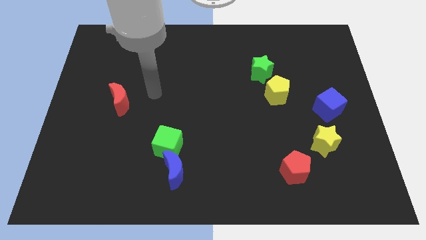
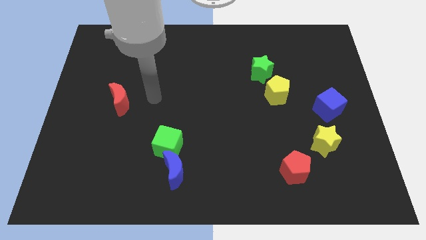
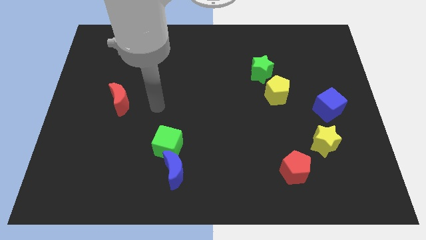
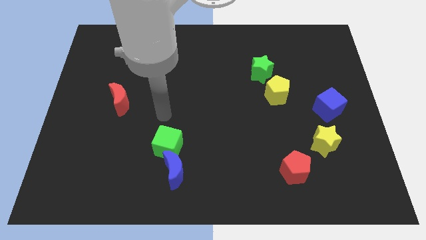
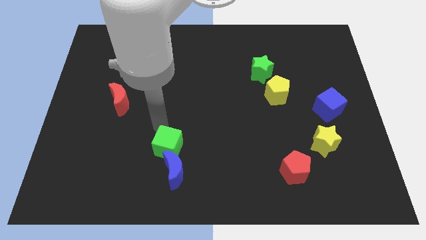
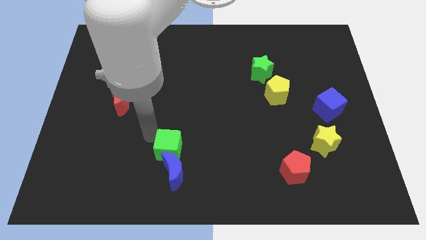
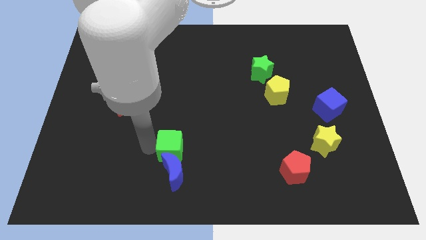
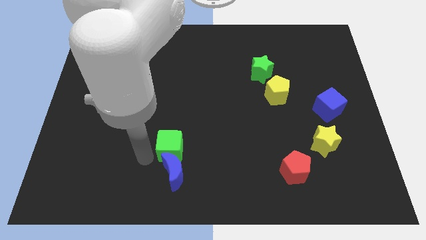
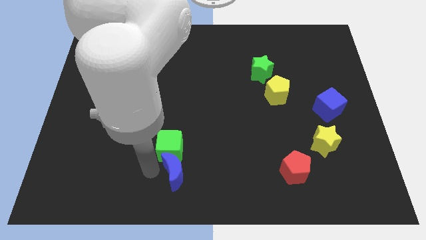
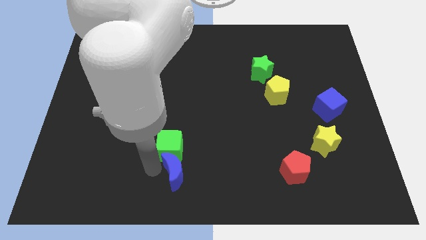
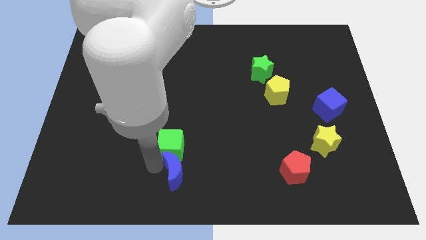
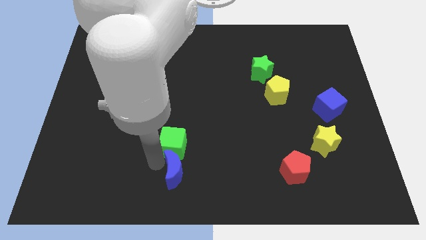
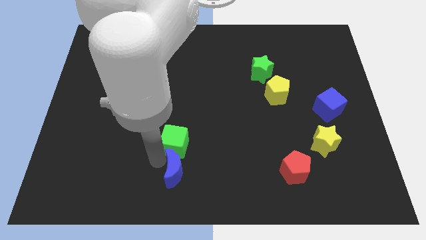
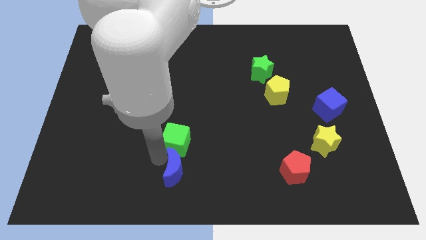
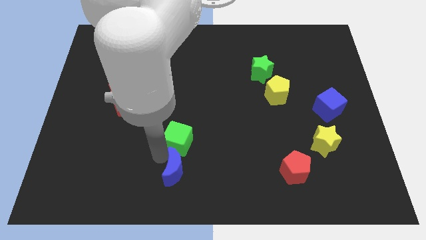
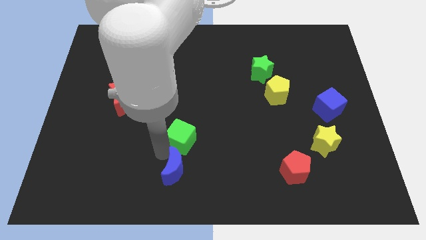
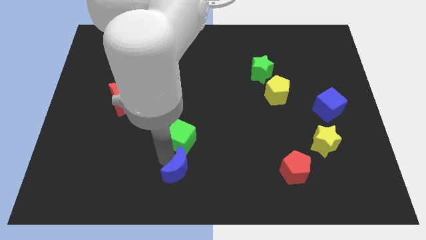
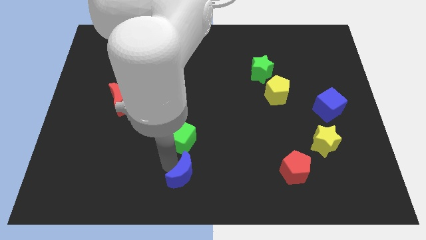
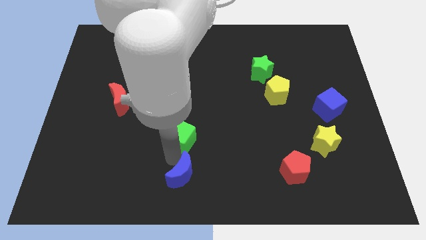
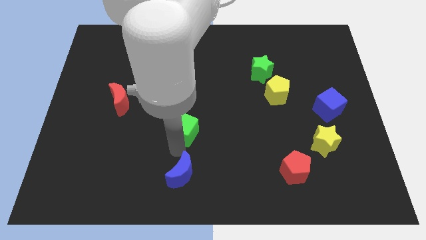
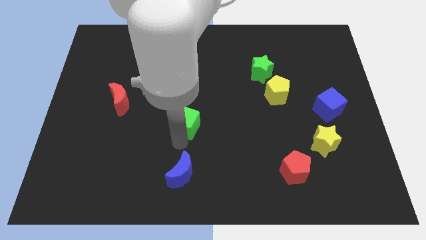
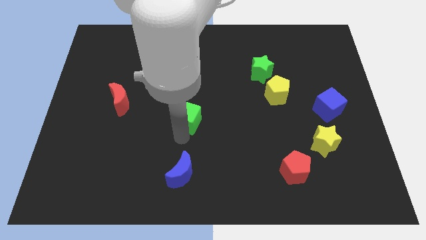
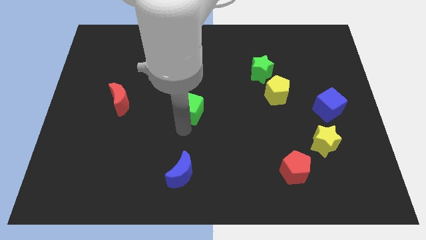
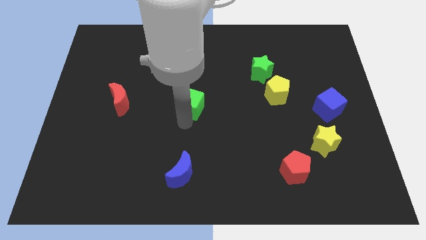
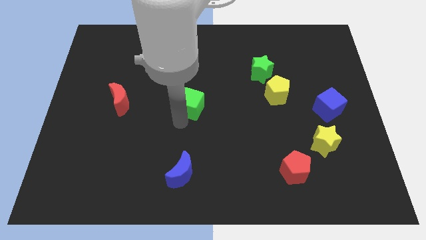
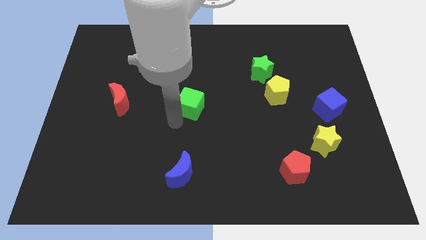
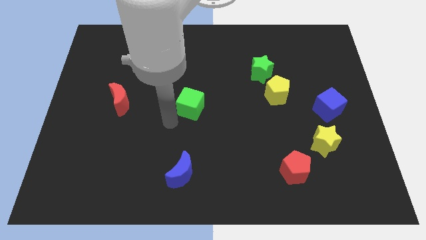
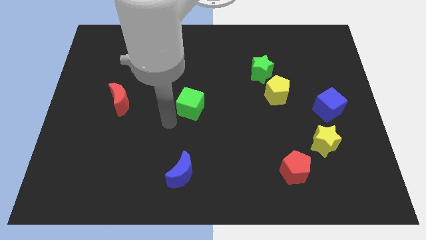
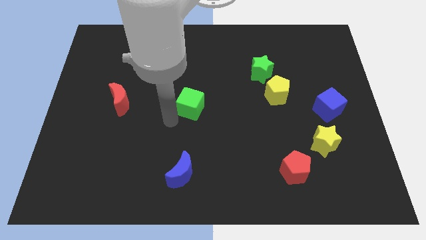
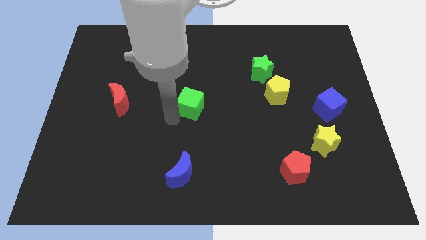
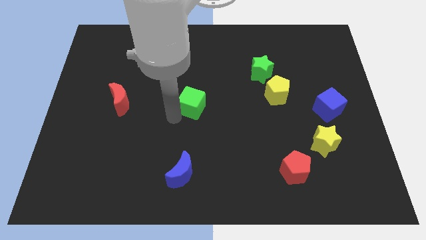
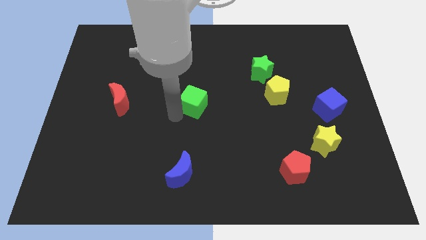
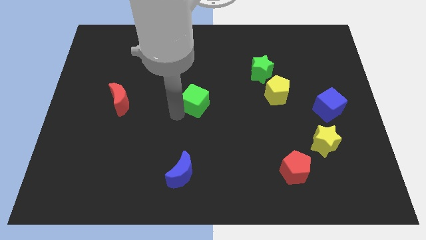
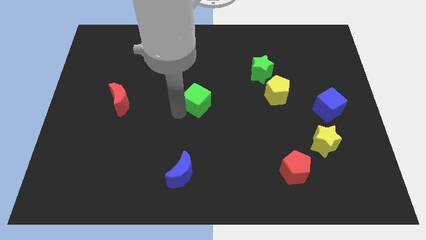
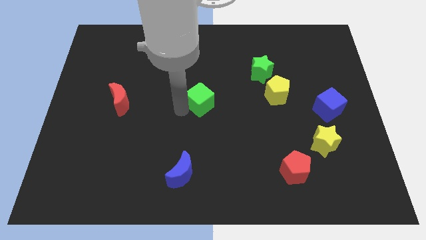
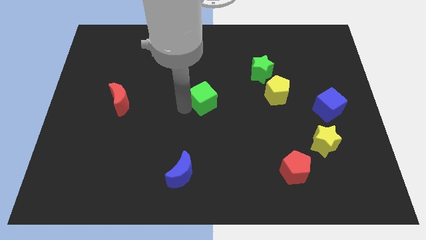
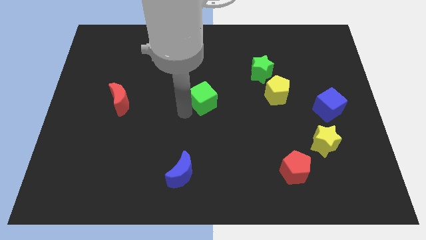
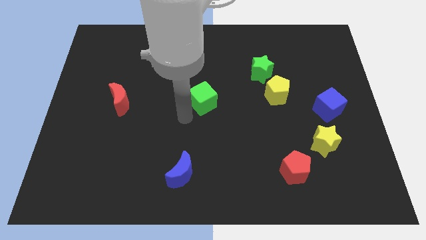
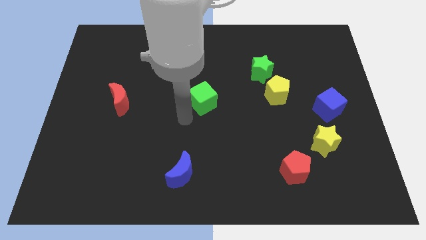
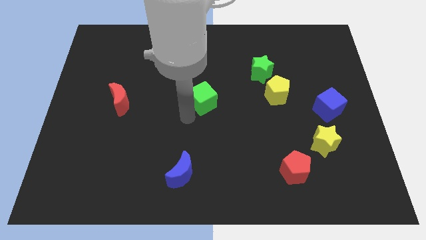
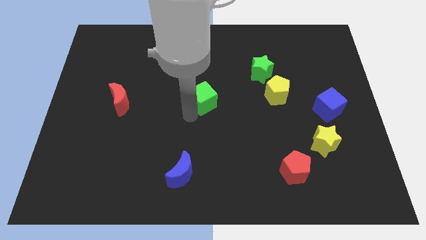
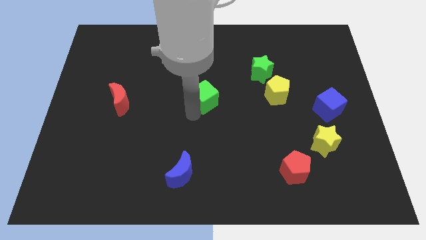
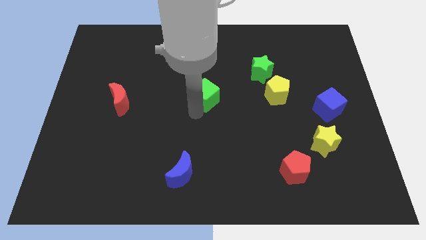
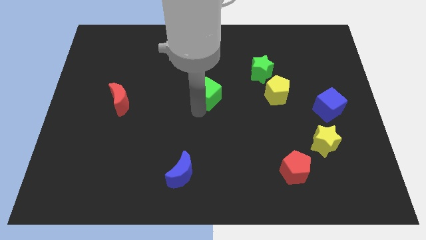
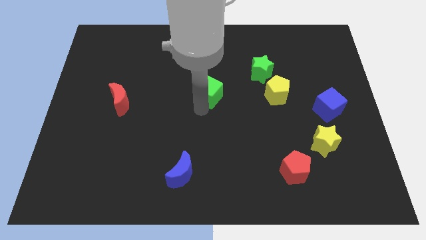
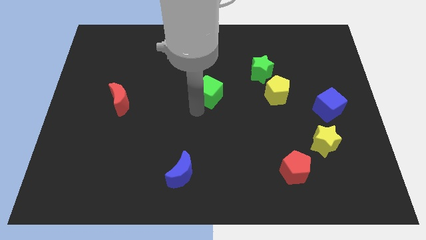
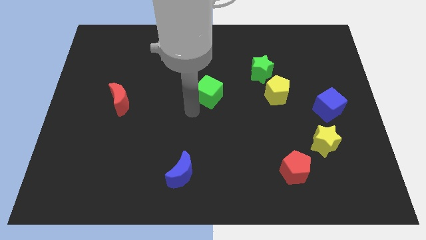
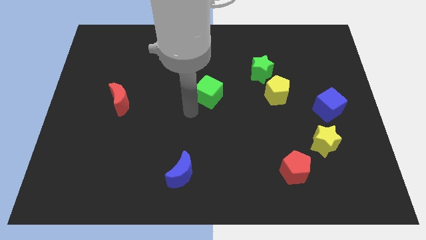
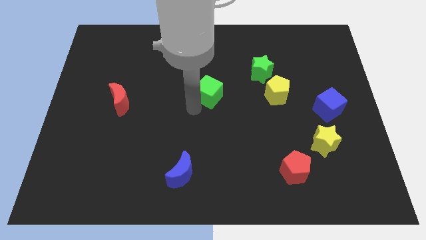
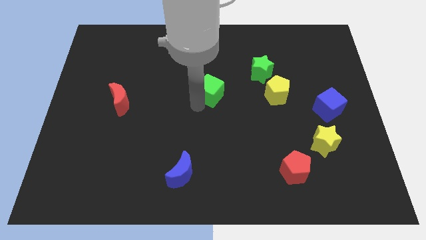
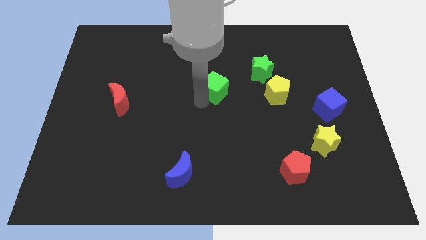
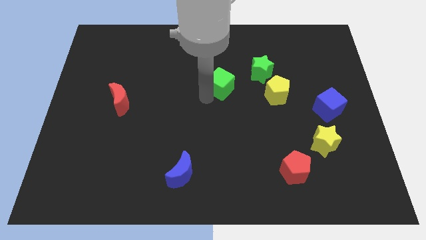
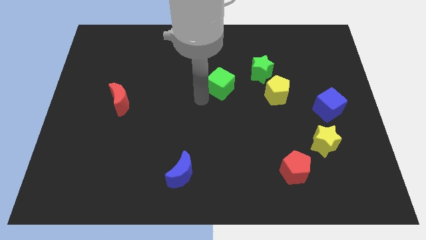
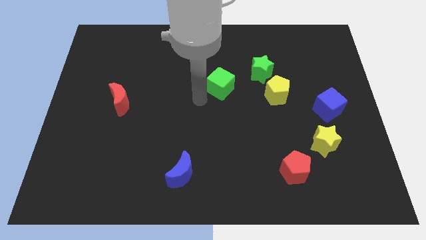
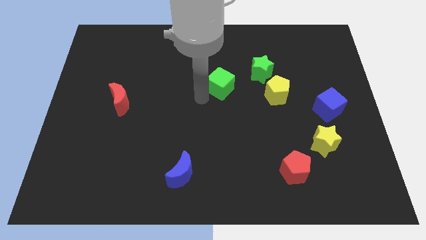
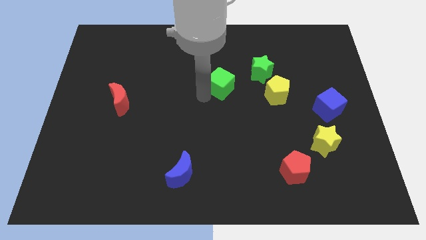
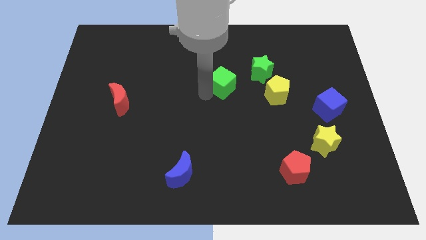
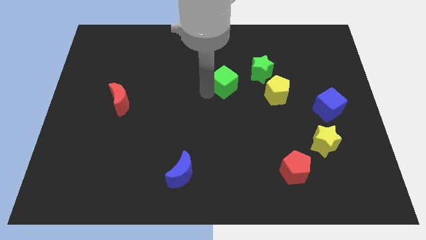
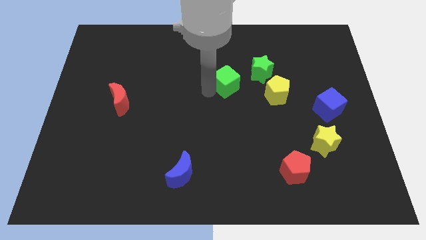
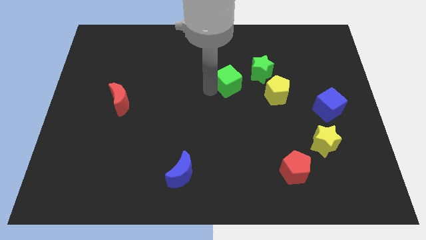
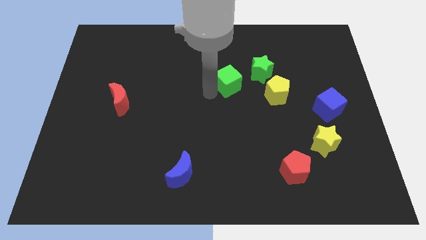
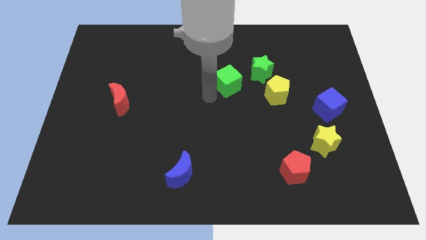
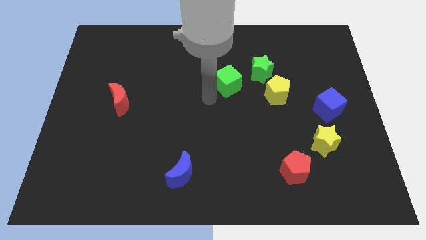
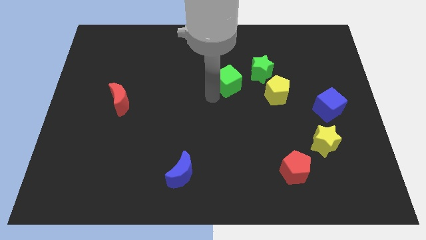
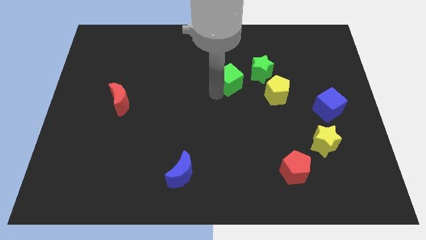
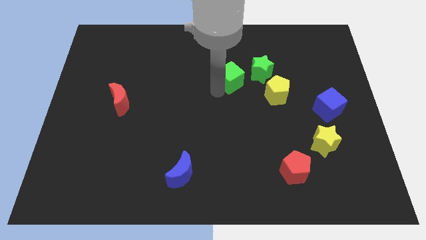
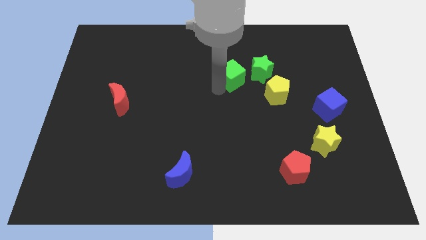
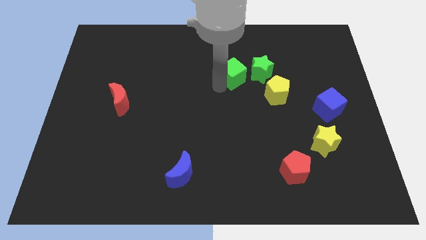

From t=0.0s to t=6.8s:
push the green cube to the top left side of the yellow pentagon
